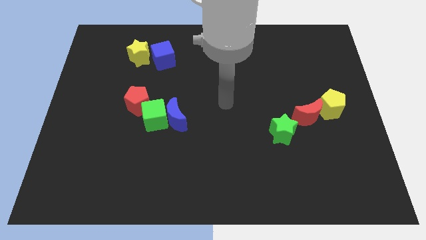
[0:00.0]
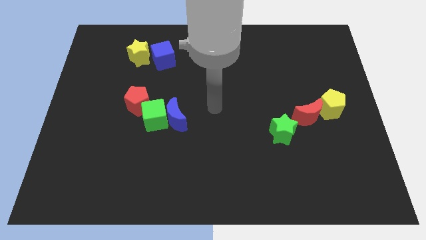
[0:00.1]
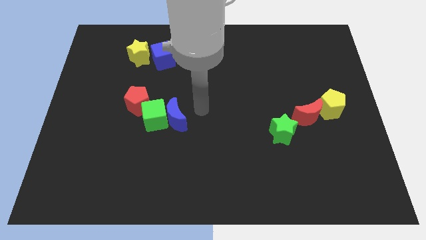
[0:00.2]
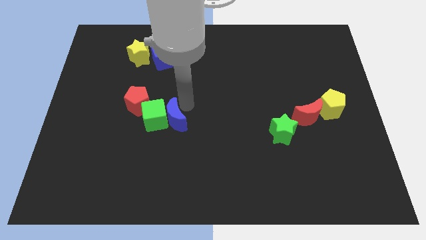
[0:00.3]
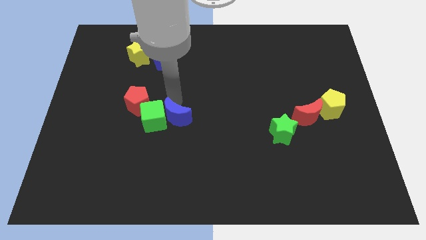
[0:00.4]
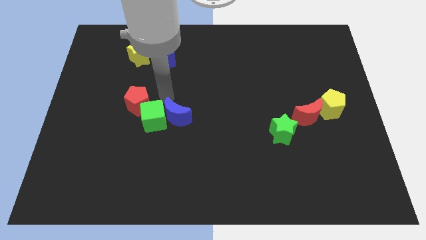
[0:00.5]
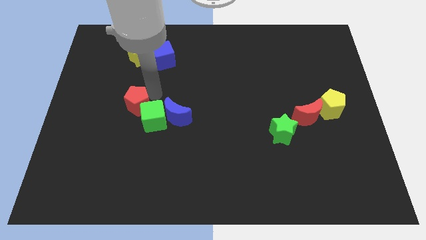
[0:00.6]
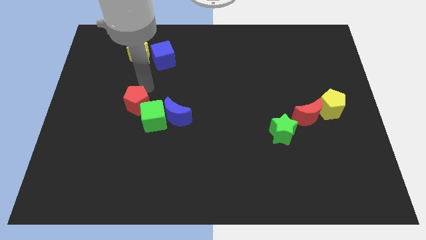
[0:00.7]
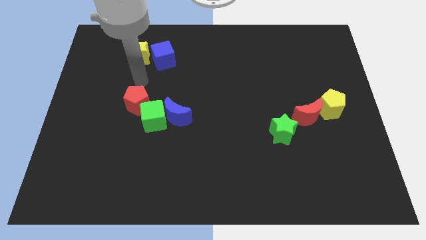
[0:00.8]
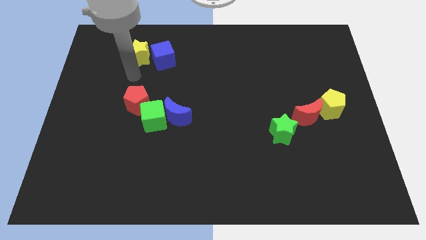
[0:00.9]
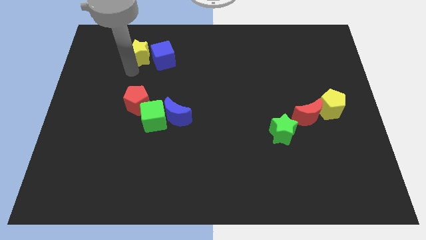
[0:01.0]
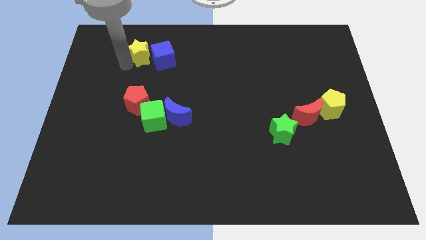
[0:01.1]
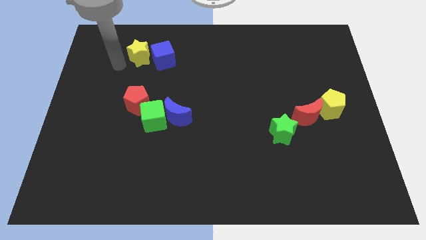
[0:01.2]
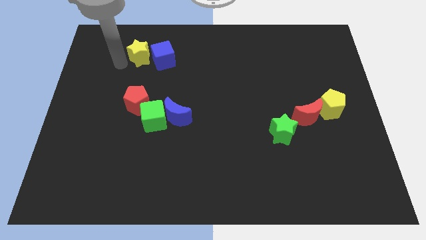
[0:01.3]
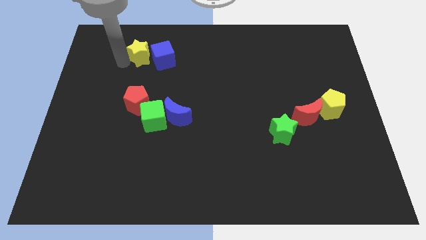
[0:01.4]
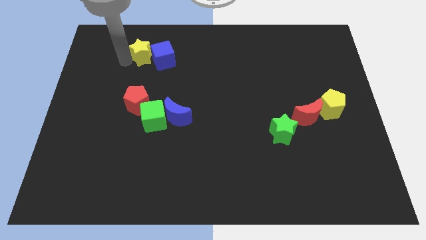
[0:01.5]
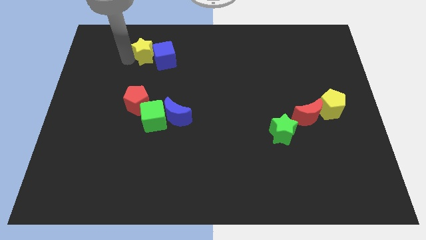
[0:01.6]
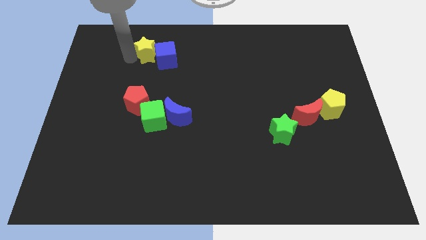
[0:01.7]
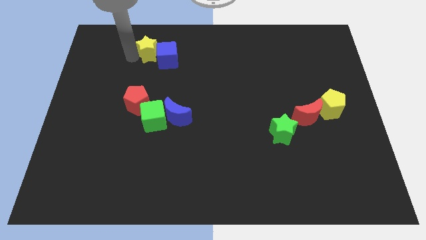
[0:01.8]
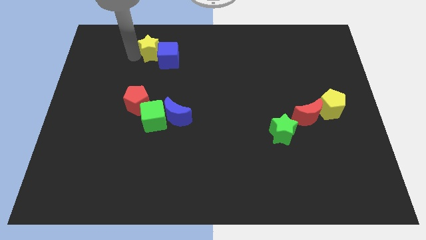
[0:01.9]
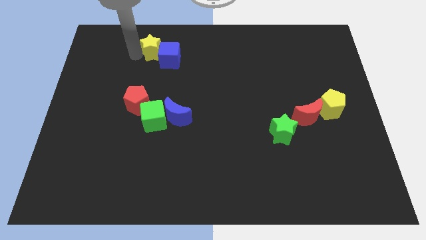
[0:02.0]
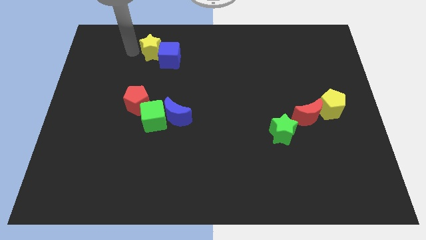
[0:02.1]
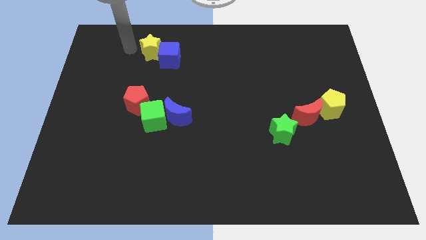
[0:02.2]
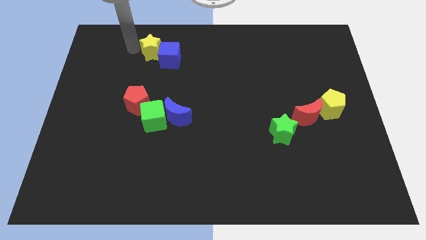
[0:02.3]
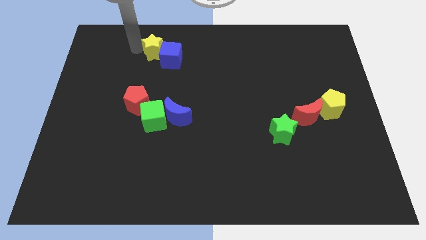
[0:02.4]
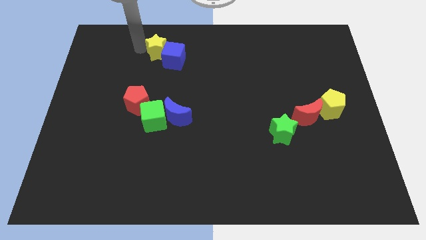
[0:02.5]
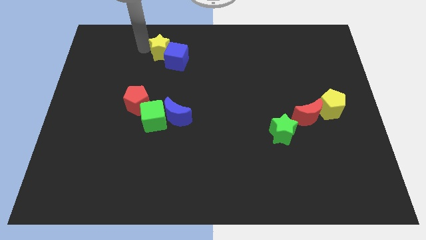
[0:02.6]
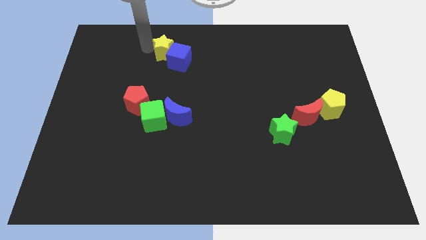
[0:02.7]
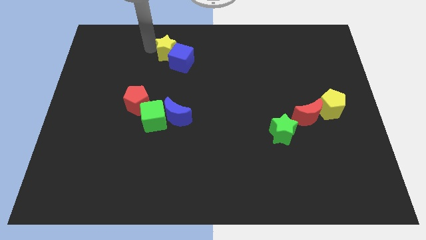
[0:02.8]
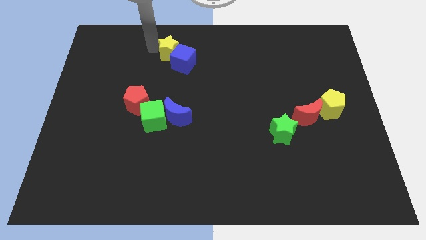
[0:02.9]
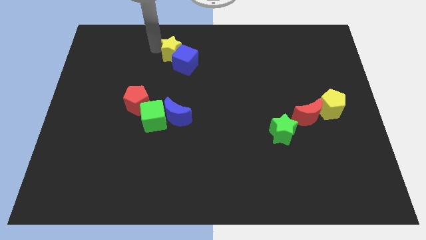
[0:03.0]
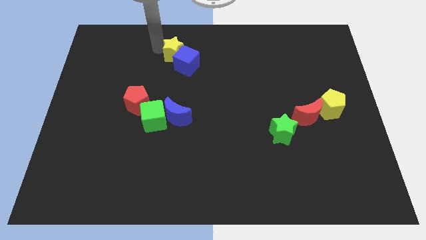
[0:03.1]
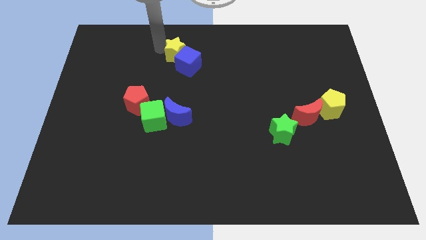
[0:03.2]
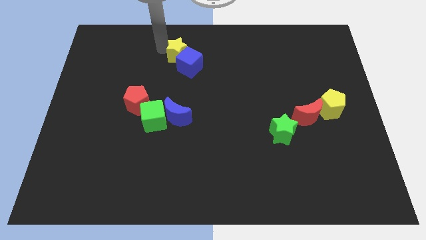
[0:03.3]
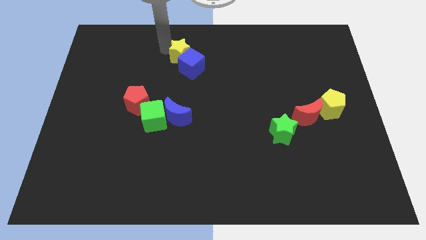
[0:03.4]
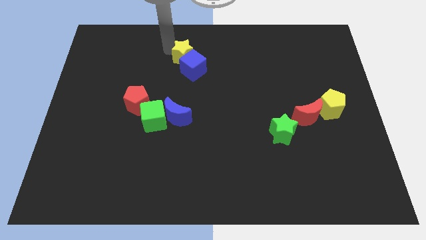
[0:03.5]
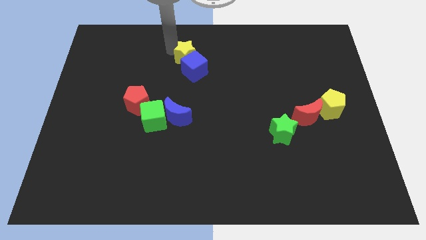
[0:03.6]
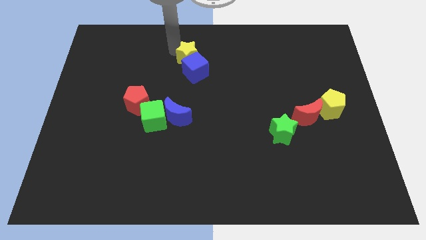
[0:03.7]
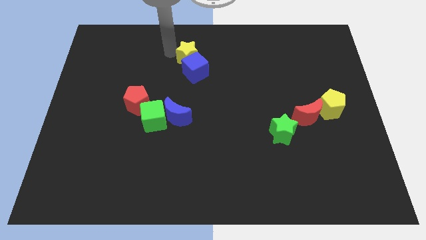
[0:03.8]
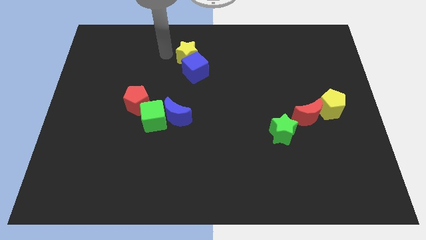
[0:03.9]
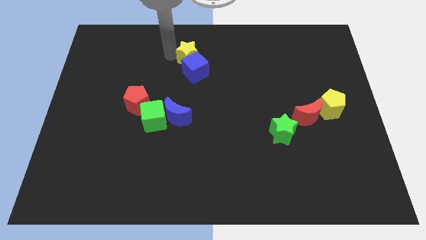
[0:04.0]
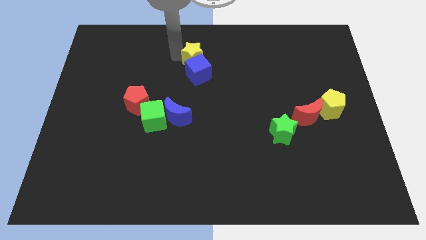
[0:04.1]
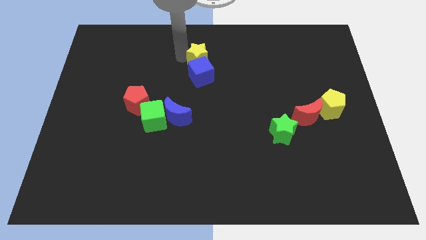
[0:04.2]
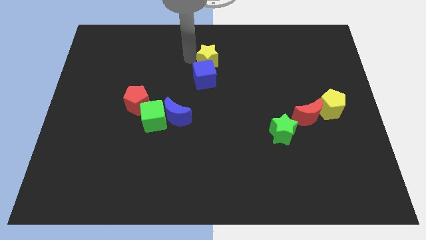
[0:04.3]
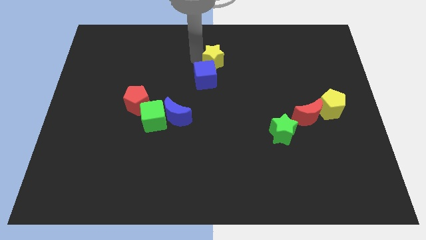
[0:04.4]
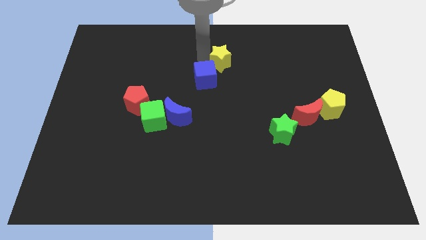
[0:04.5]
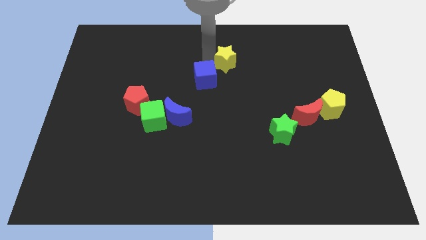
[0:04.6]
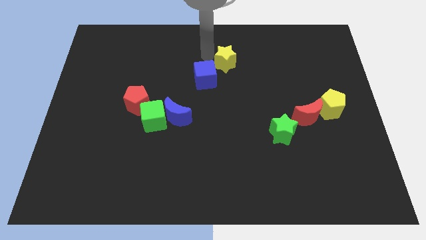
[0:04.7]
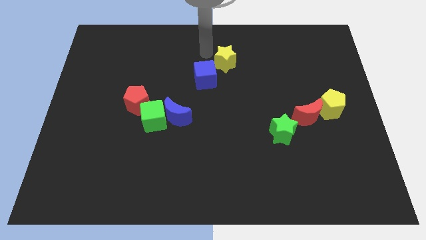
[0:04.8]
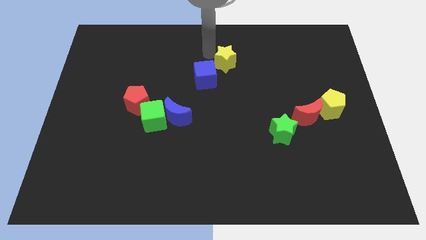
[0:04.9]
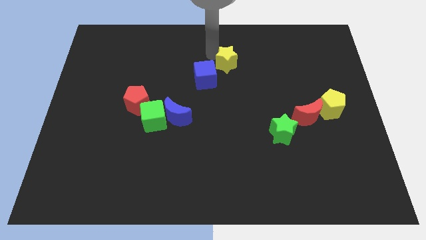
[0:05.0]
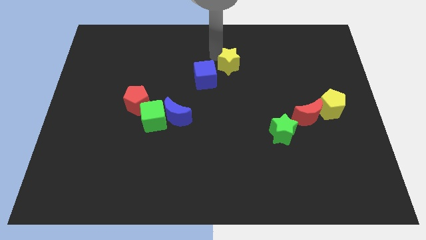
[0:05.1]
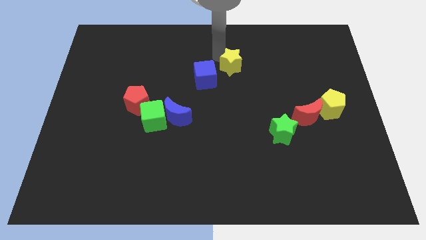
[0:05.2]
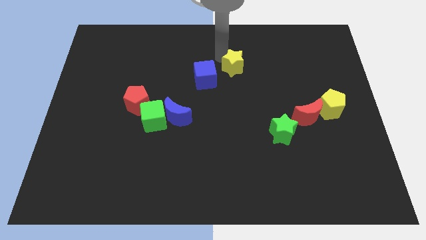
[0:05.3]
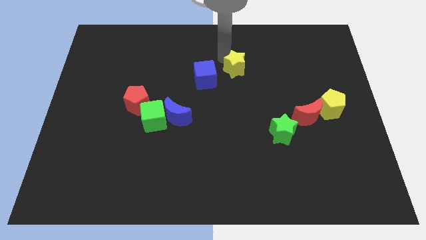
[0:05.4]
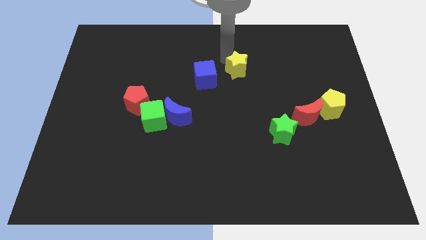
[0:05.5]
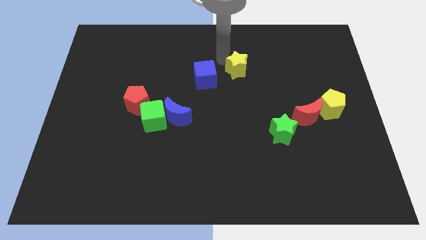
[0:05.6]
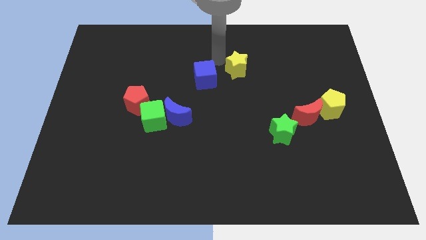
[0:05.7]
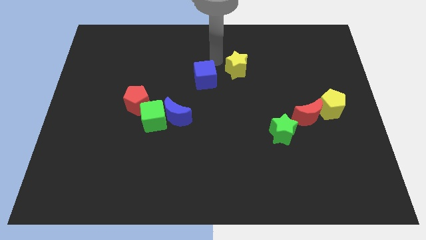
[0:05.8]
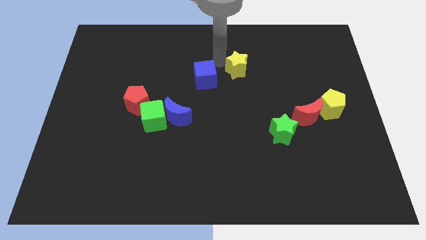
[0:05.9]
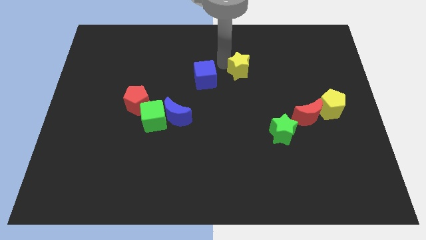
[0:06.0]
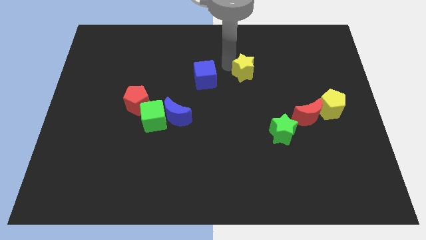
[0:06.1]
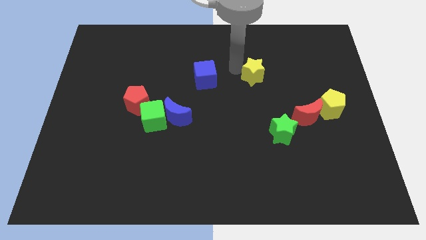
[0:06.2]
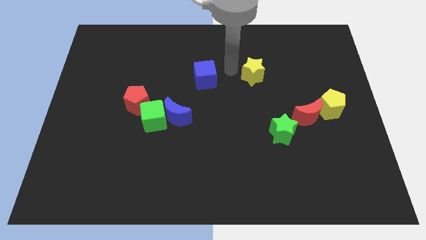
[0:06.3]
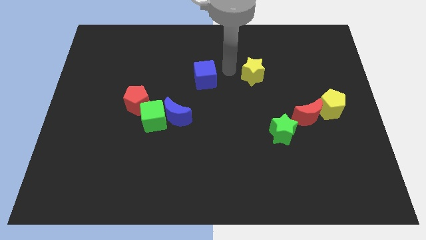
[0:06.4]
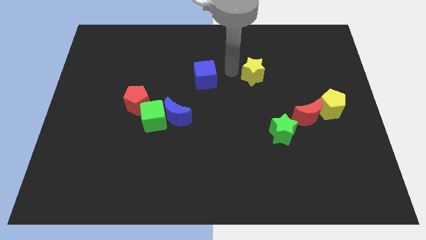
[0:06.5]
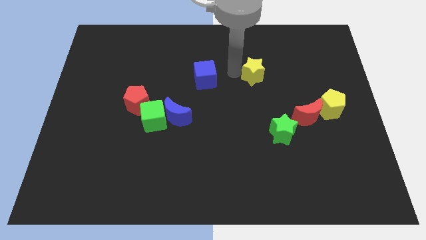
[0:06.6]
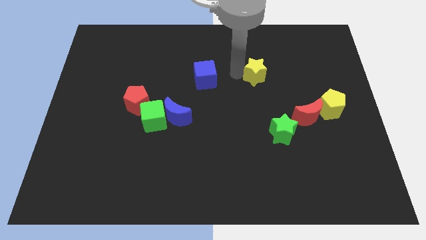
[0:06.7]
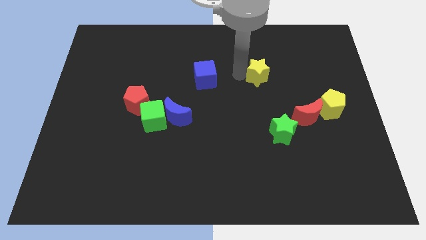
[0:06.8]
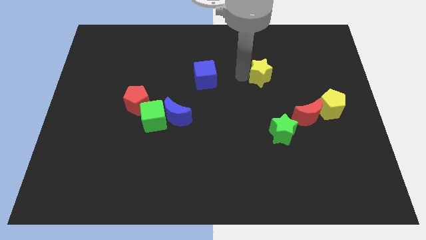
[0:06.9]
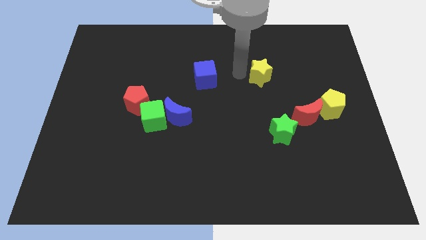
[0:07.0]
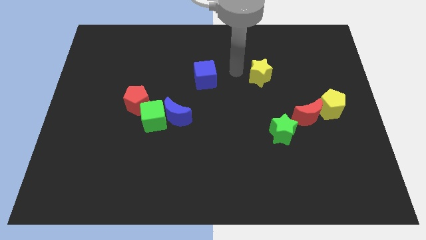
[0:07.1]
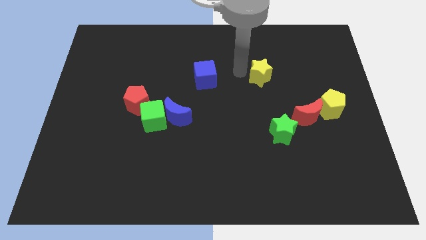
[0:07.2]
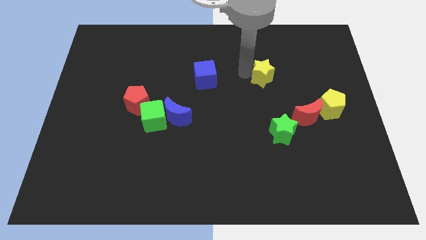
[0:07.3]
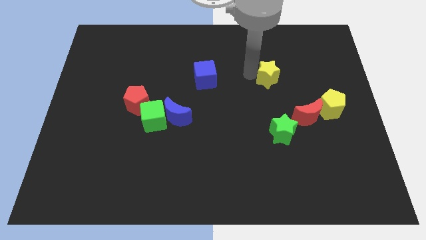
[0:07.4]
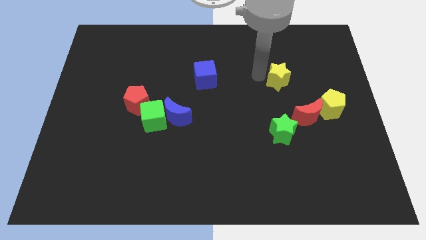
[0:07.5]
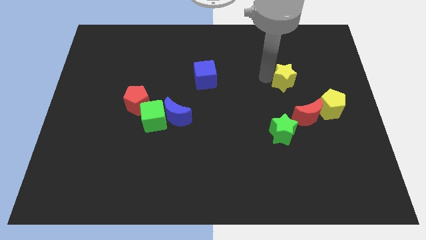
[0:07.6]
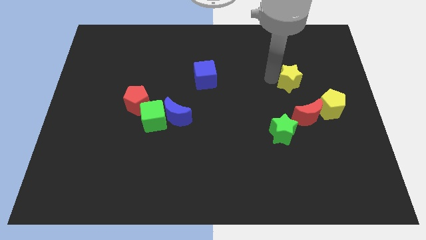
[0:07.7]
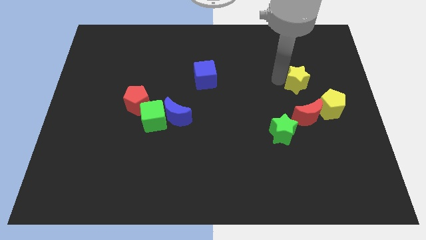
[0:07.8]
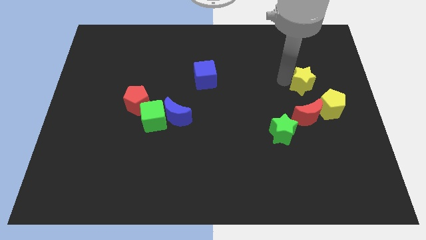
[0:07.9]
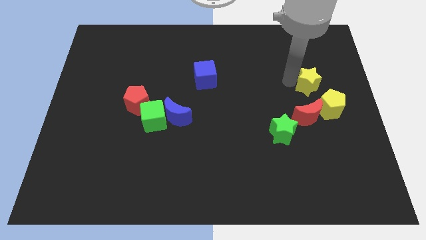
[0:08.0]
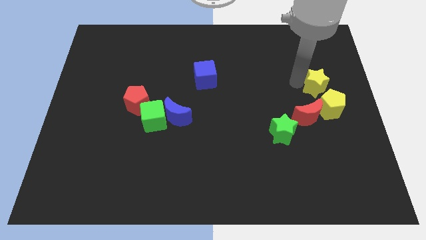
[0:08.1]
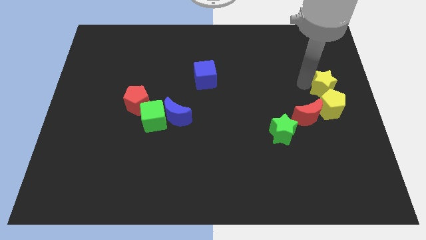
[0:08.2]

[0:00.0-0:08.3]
push the yellow star to the right side of the board
